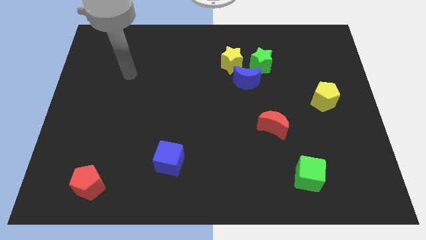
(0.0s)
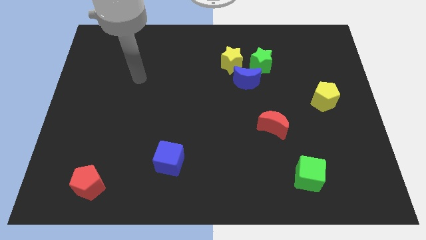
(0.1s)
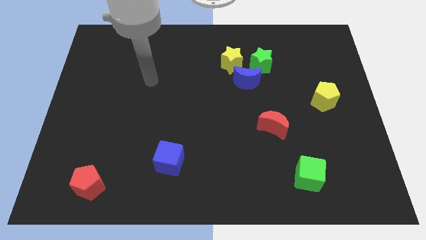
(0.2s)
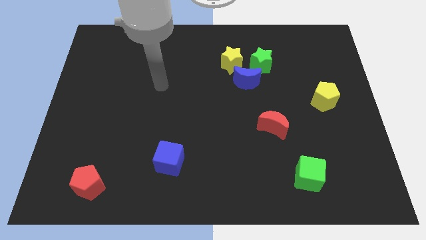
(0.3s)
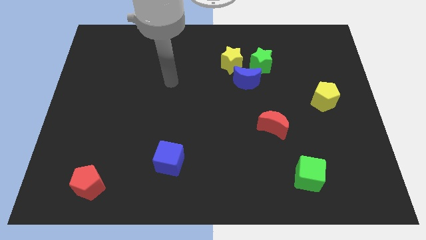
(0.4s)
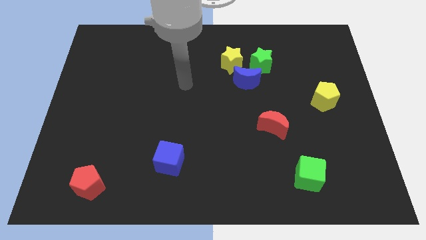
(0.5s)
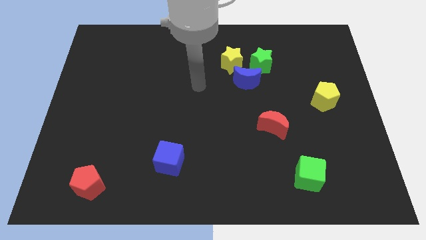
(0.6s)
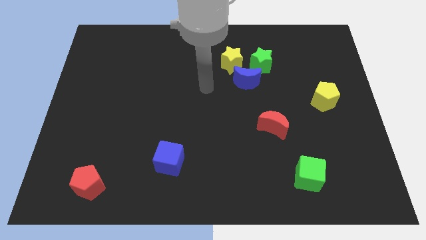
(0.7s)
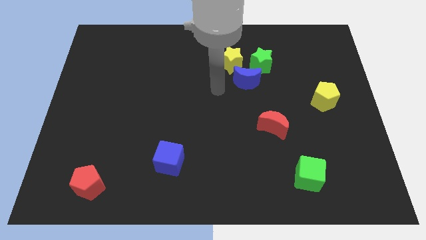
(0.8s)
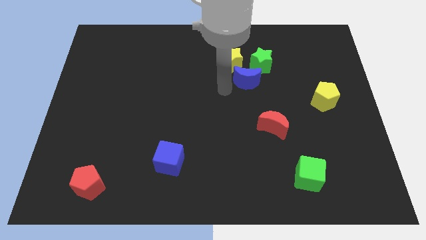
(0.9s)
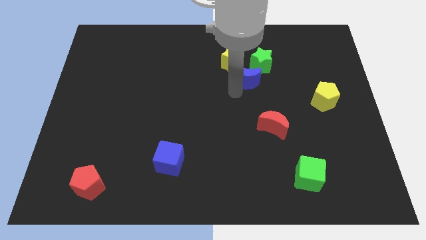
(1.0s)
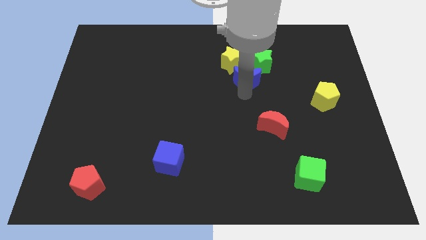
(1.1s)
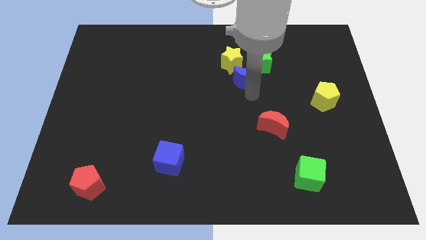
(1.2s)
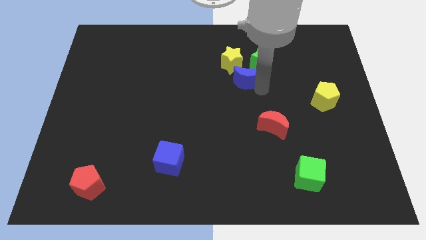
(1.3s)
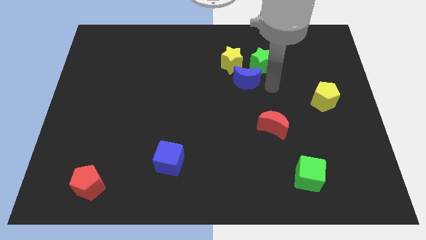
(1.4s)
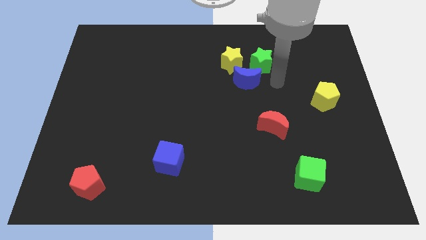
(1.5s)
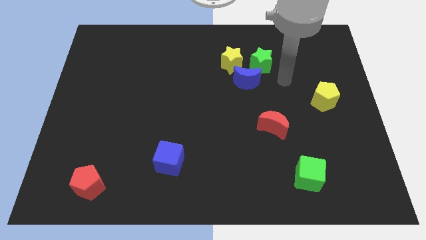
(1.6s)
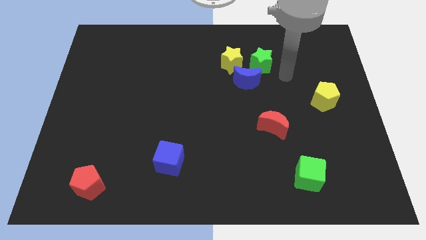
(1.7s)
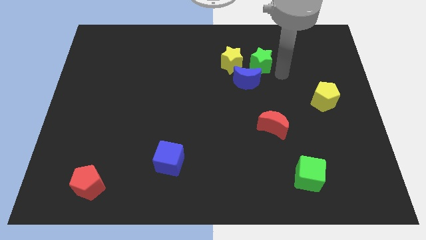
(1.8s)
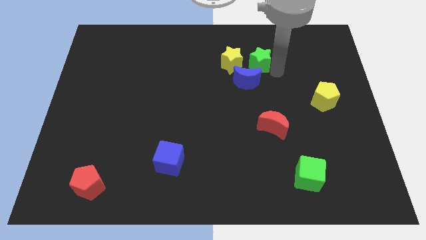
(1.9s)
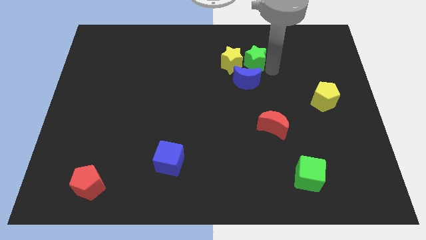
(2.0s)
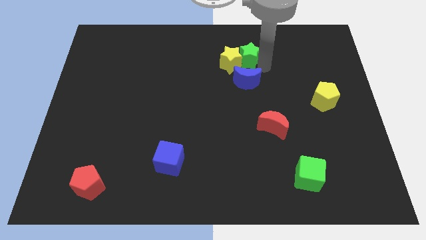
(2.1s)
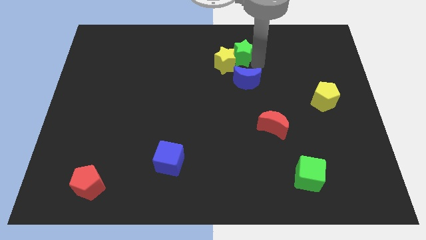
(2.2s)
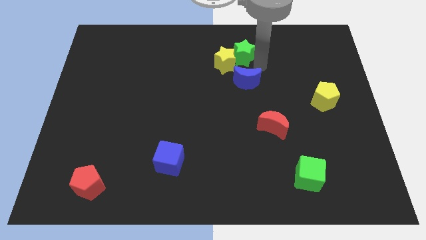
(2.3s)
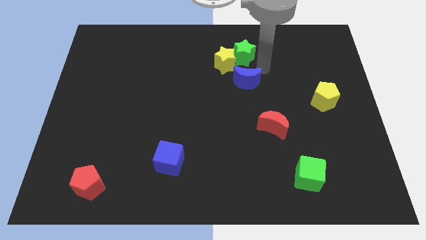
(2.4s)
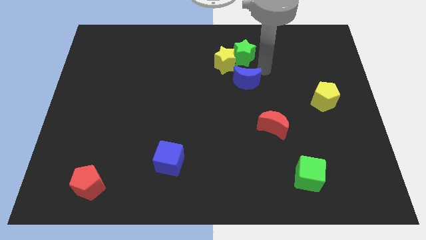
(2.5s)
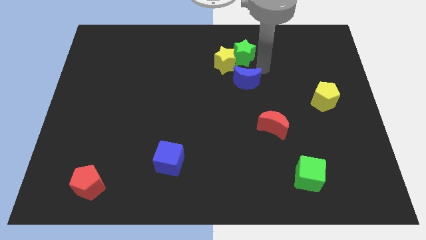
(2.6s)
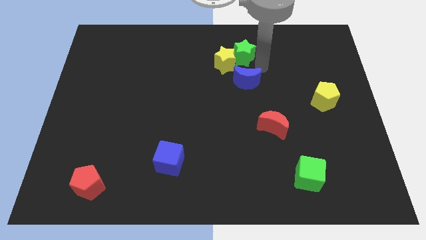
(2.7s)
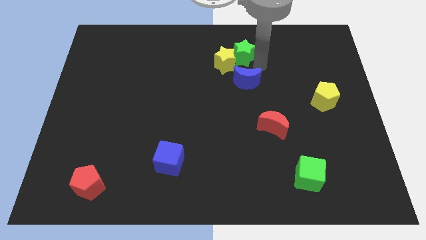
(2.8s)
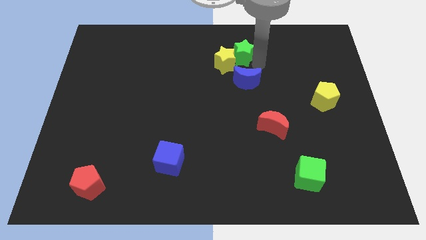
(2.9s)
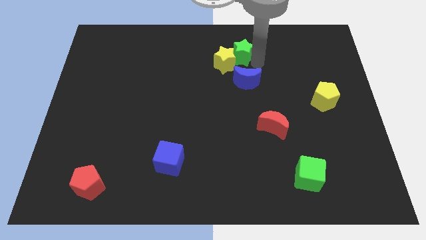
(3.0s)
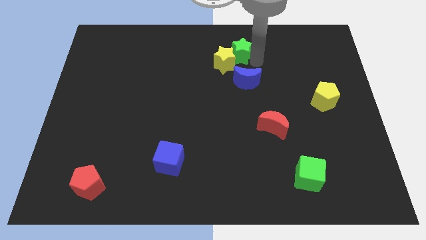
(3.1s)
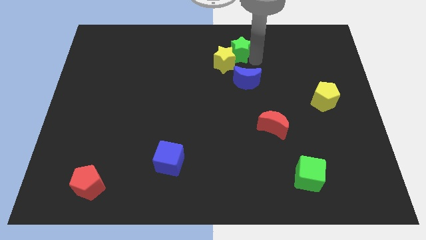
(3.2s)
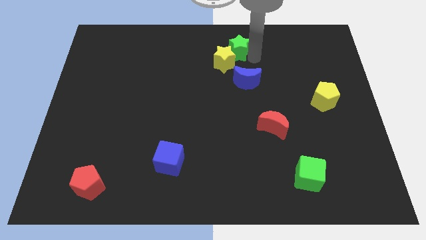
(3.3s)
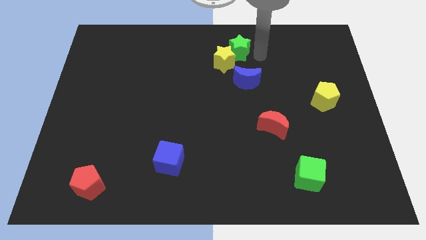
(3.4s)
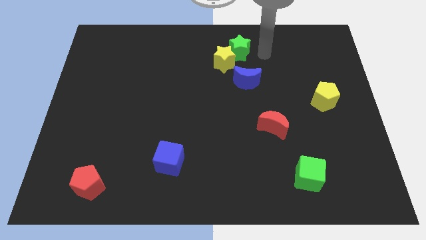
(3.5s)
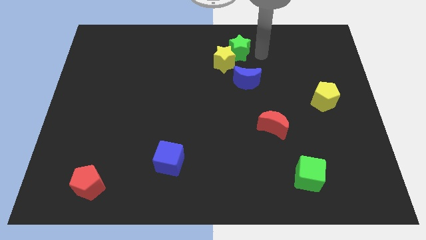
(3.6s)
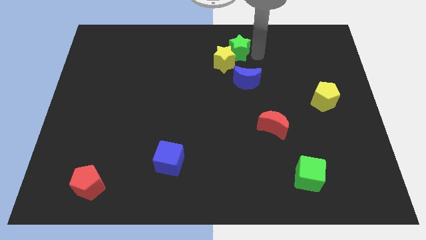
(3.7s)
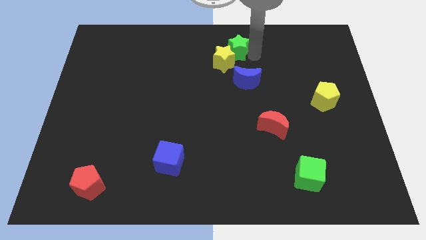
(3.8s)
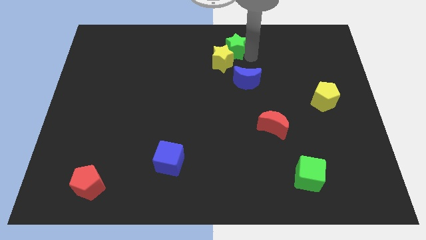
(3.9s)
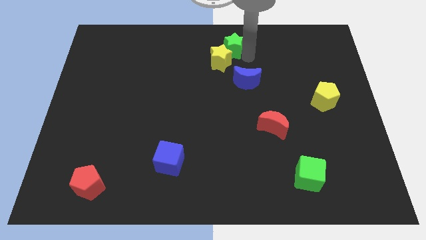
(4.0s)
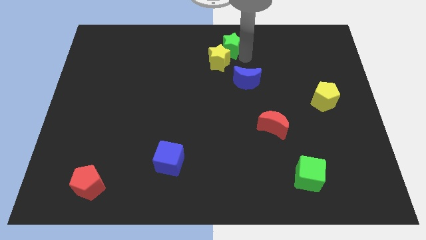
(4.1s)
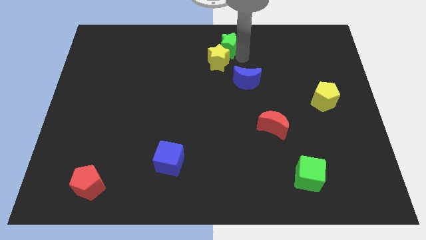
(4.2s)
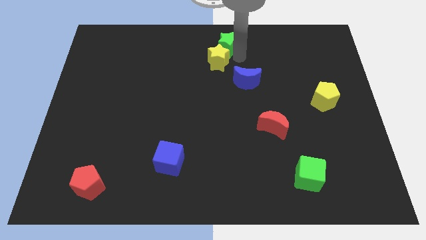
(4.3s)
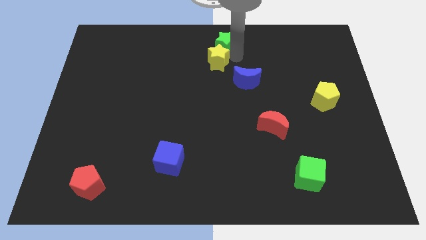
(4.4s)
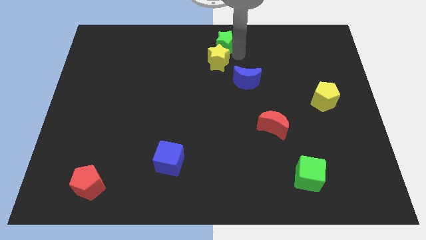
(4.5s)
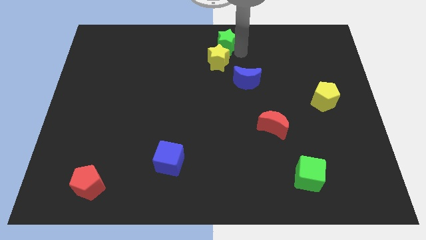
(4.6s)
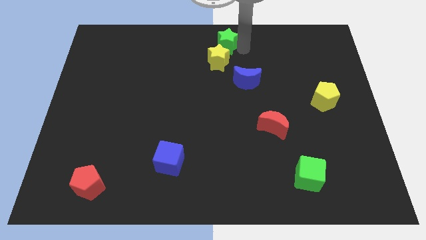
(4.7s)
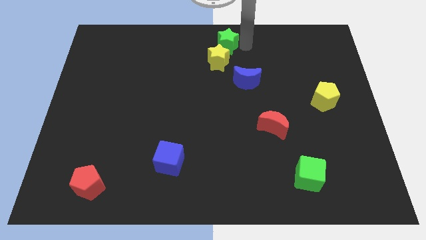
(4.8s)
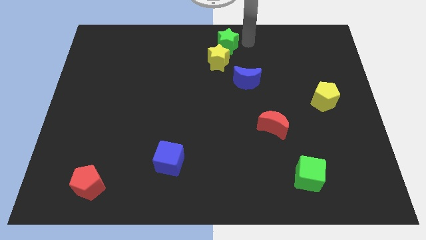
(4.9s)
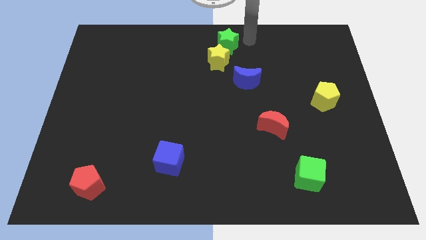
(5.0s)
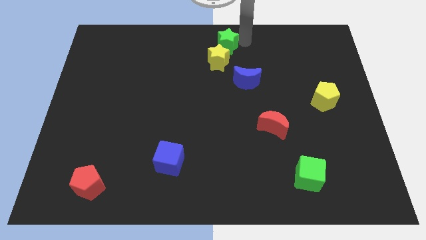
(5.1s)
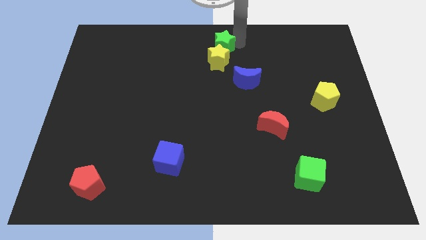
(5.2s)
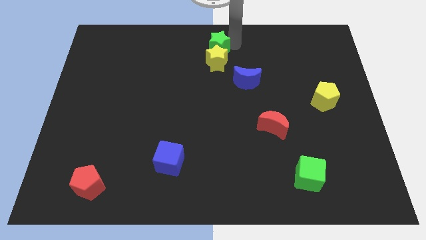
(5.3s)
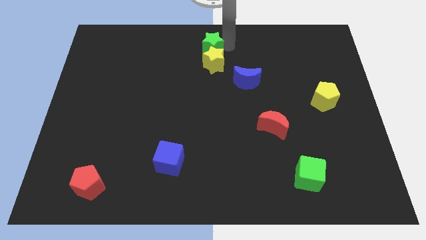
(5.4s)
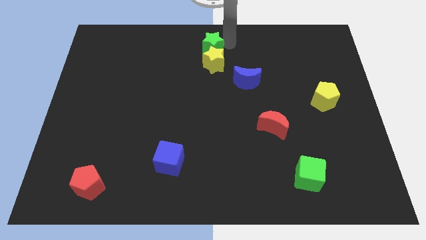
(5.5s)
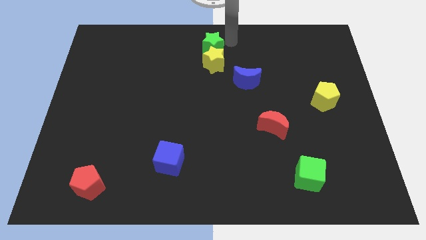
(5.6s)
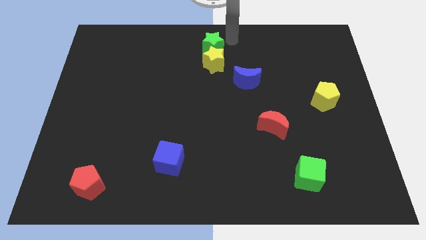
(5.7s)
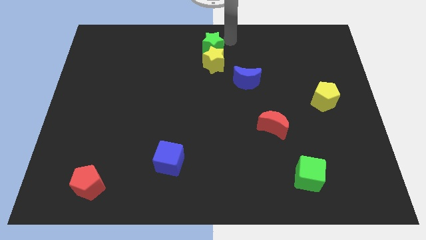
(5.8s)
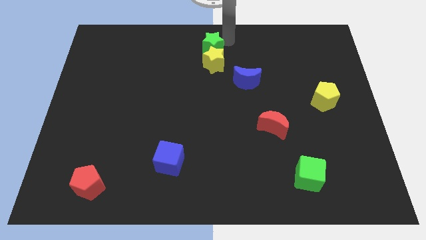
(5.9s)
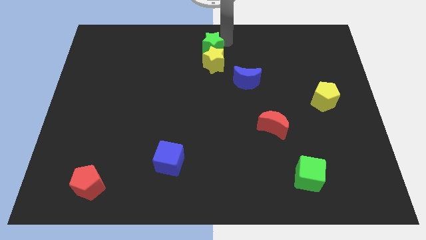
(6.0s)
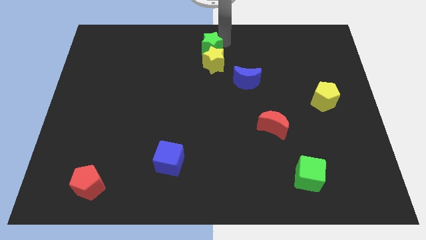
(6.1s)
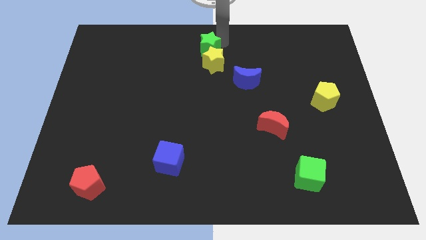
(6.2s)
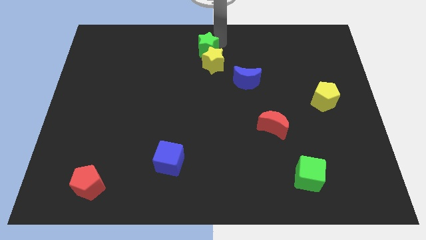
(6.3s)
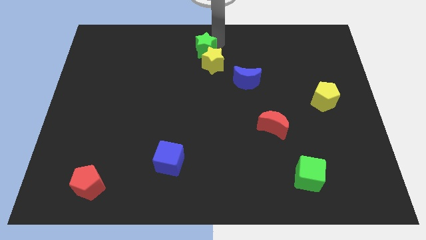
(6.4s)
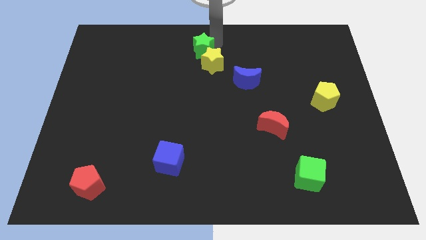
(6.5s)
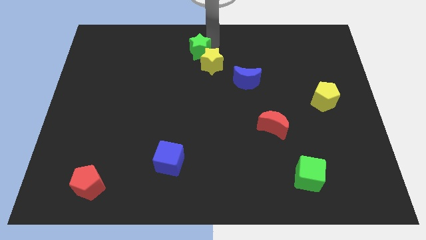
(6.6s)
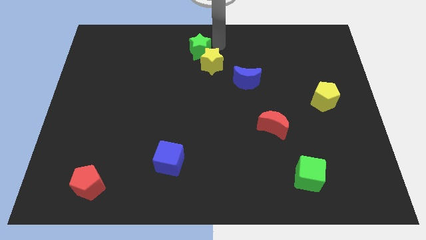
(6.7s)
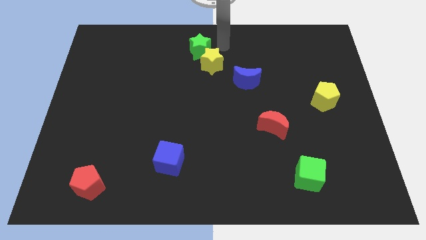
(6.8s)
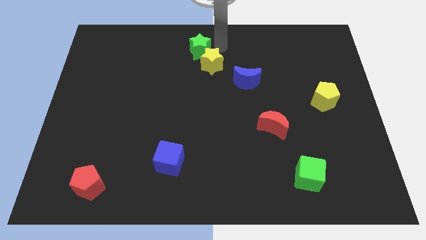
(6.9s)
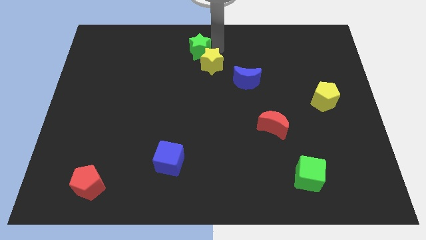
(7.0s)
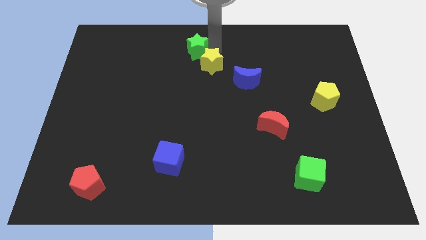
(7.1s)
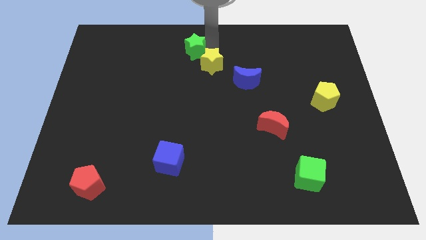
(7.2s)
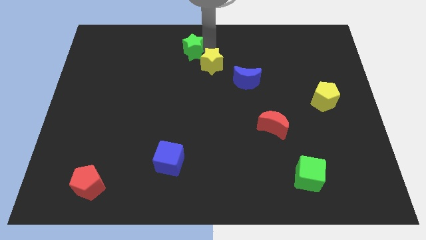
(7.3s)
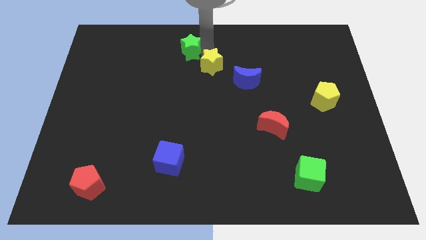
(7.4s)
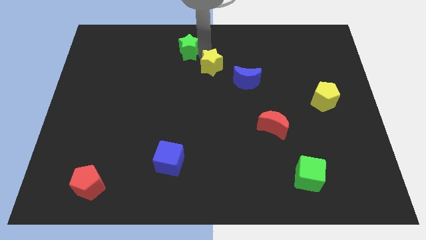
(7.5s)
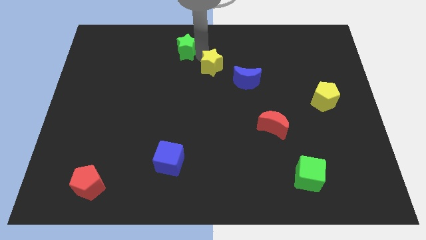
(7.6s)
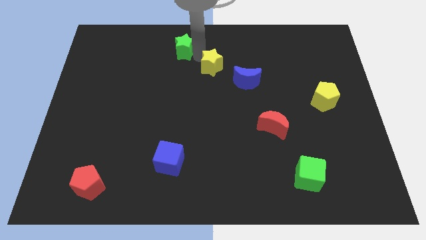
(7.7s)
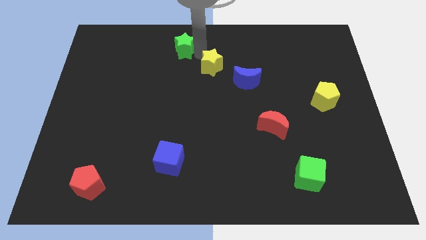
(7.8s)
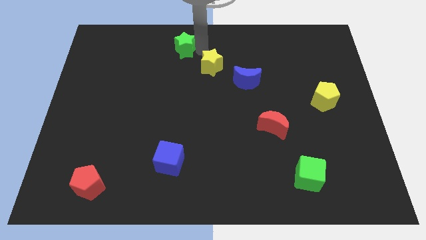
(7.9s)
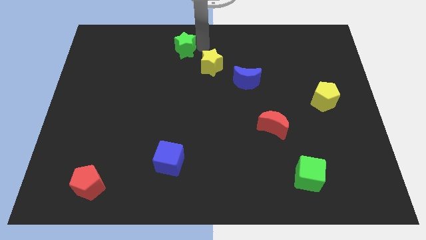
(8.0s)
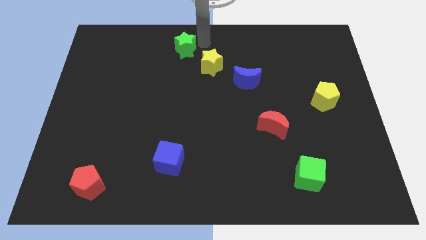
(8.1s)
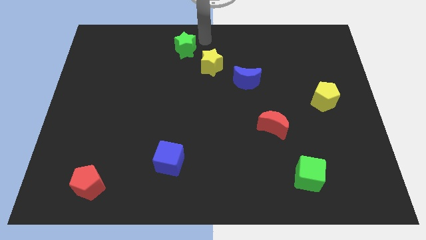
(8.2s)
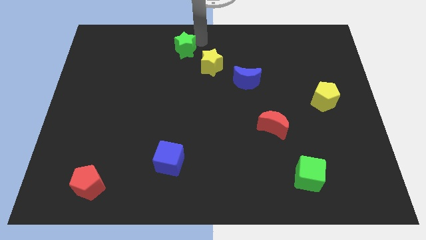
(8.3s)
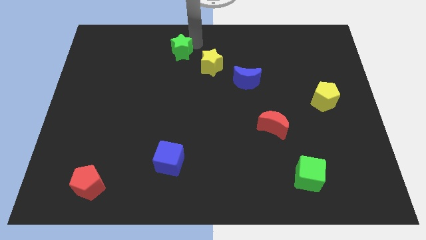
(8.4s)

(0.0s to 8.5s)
push the green star to the left
